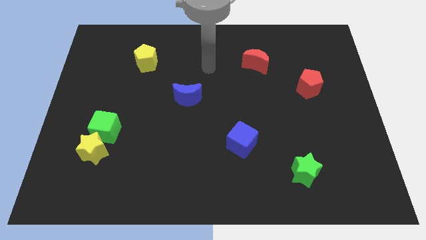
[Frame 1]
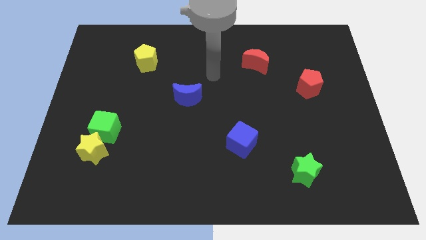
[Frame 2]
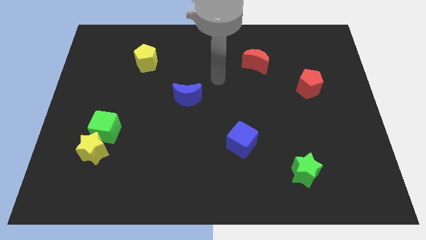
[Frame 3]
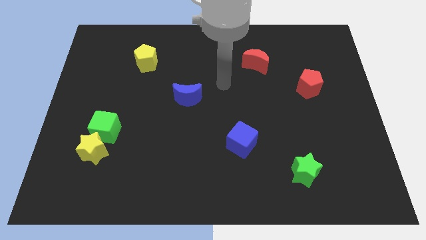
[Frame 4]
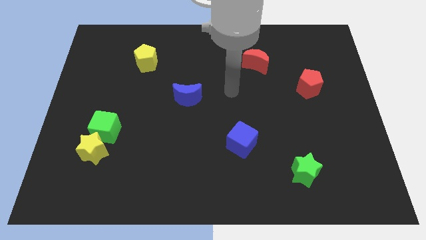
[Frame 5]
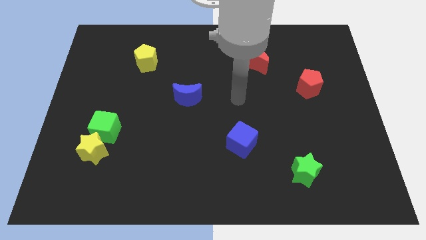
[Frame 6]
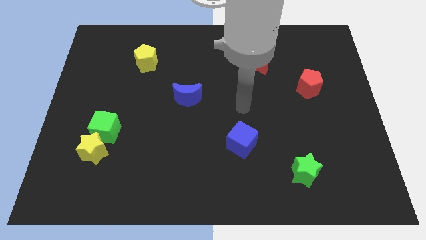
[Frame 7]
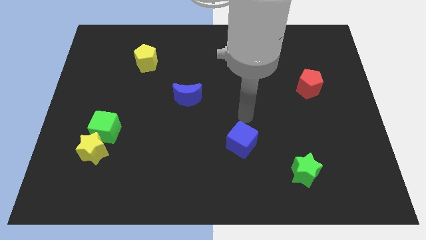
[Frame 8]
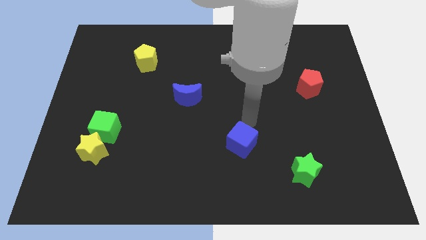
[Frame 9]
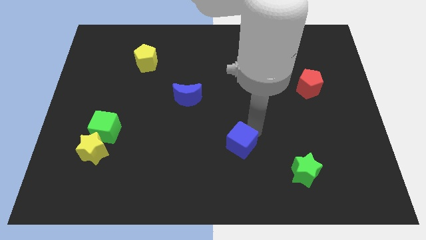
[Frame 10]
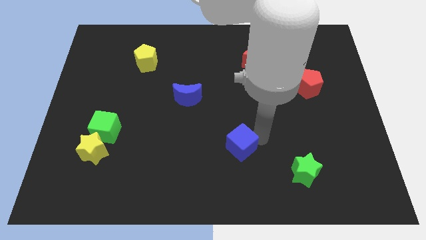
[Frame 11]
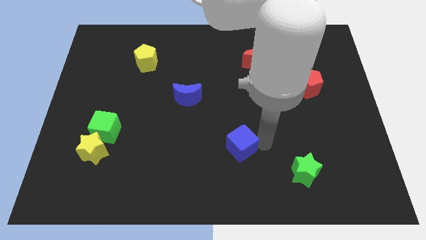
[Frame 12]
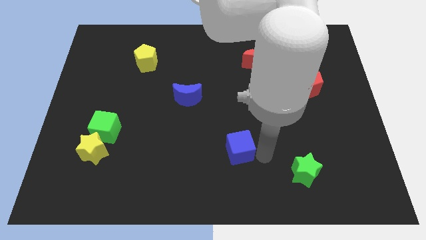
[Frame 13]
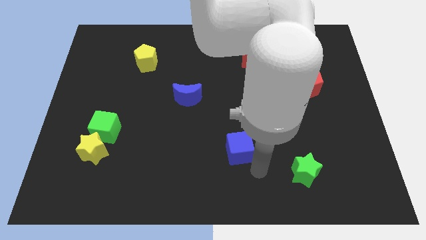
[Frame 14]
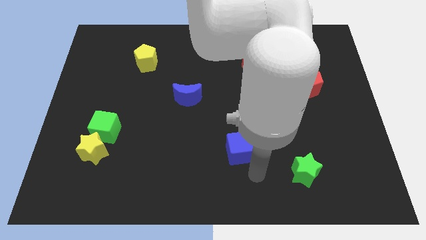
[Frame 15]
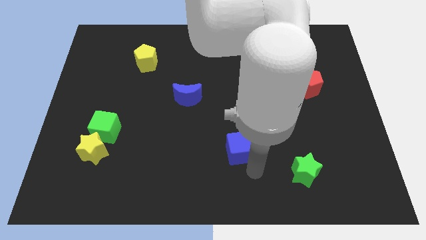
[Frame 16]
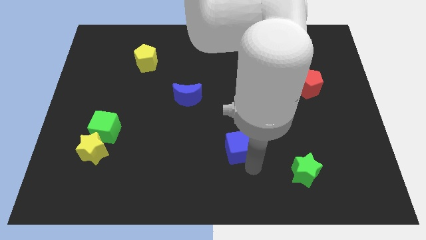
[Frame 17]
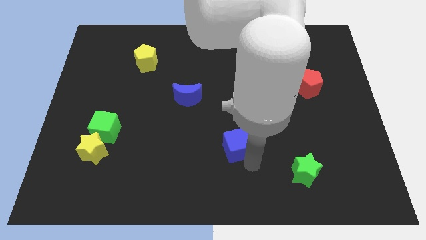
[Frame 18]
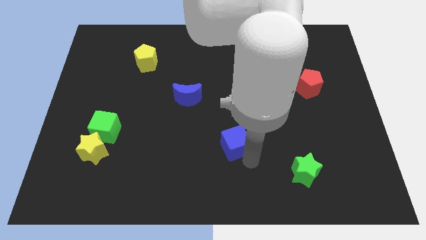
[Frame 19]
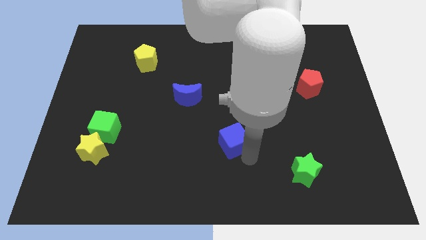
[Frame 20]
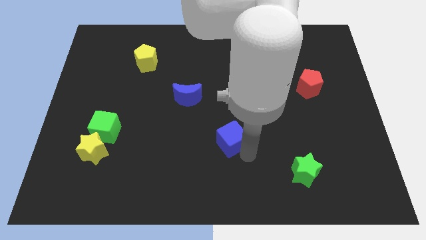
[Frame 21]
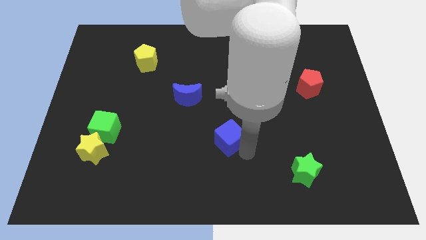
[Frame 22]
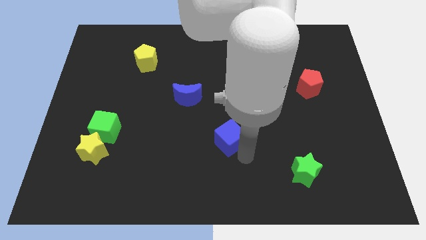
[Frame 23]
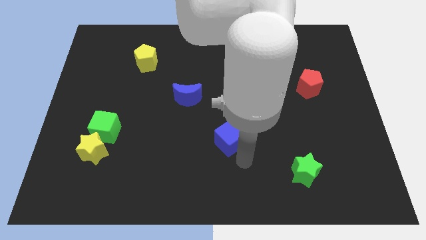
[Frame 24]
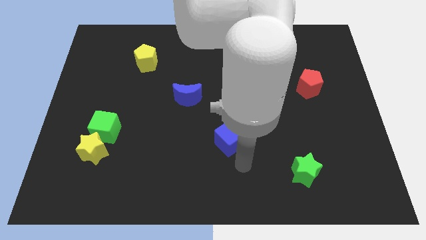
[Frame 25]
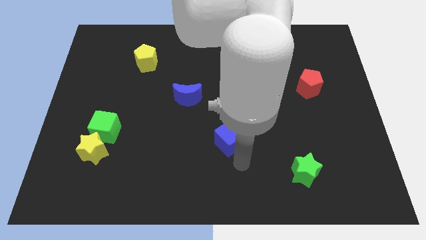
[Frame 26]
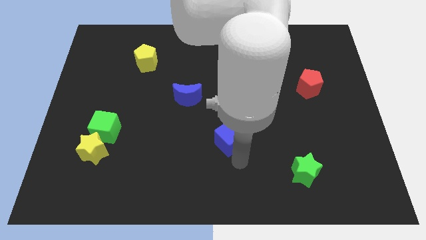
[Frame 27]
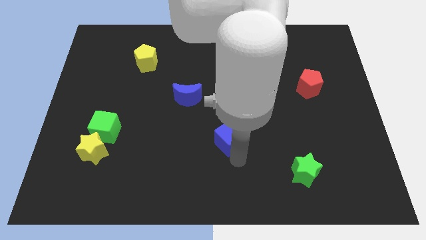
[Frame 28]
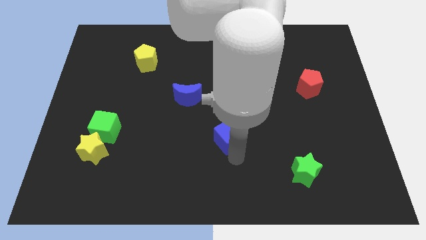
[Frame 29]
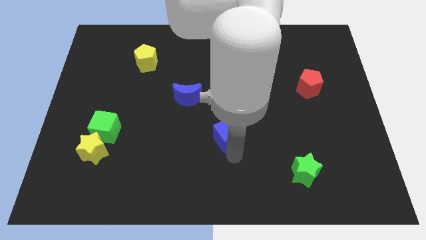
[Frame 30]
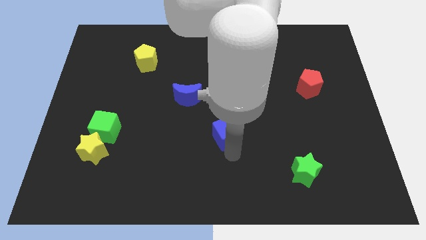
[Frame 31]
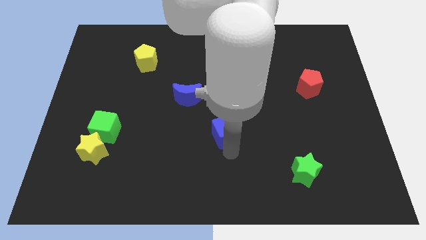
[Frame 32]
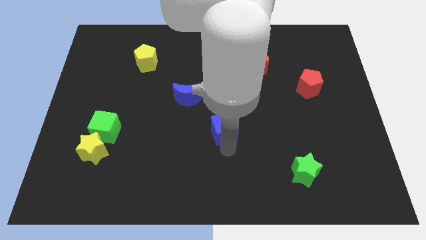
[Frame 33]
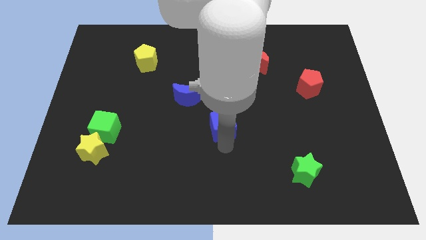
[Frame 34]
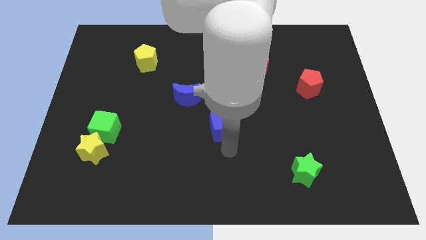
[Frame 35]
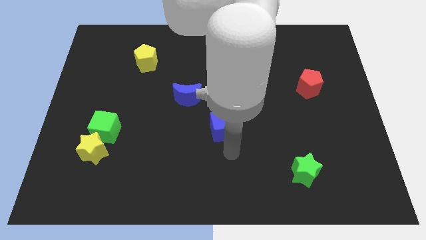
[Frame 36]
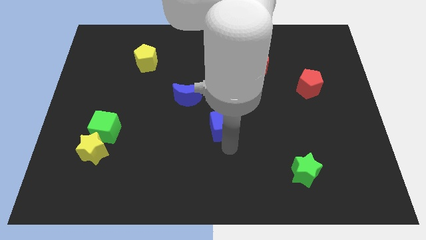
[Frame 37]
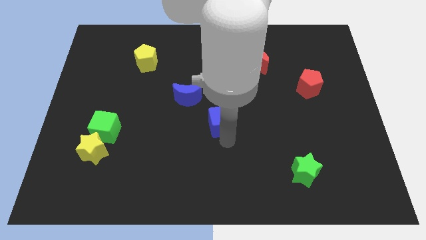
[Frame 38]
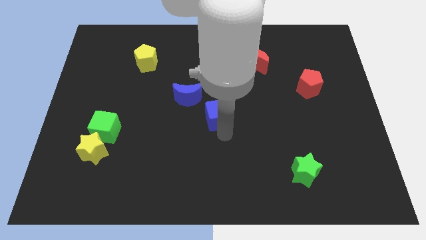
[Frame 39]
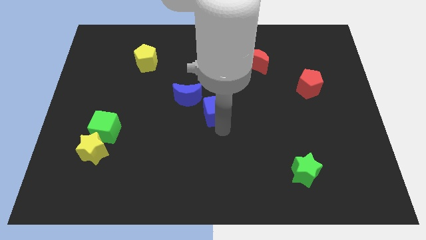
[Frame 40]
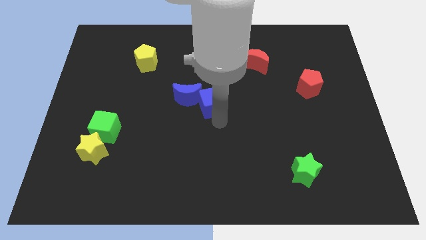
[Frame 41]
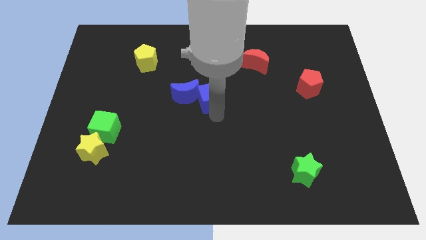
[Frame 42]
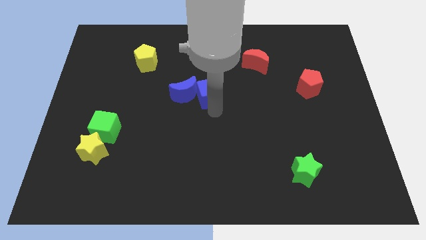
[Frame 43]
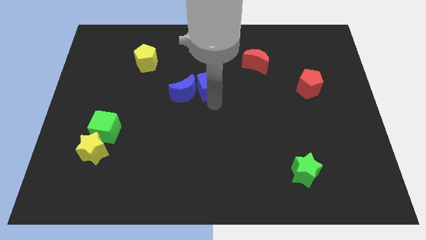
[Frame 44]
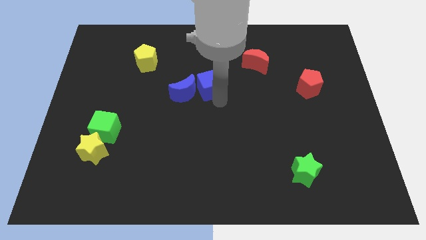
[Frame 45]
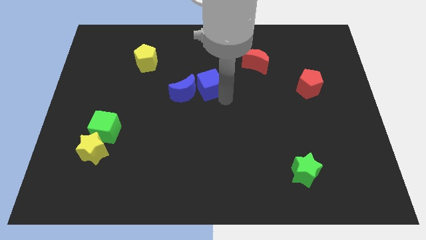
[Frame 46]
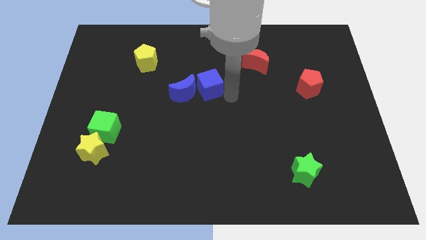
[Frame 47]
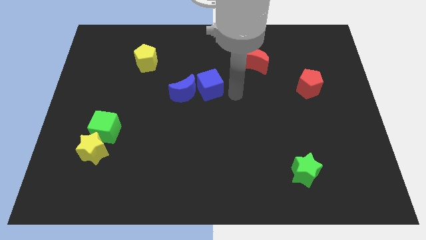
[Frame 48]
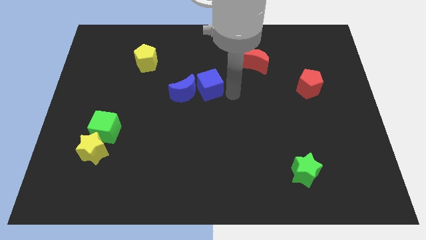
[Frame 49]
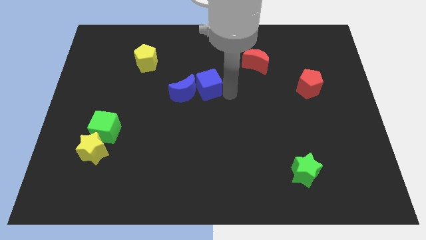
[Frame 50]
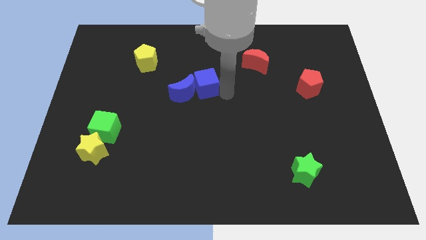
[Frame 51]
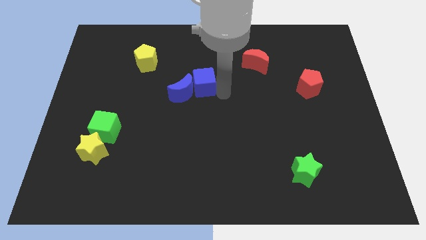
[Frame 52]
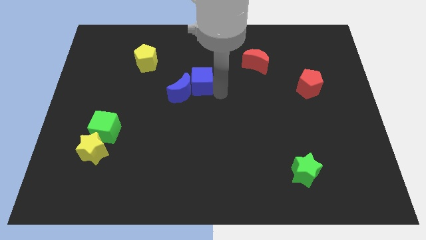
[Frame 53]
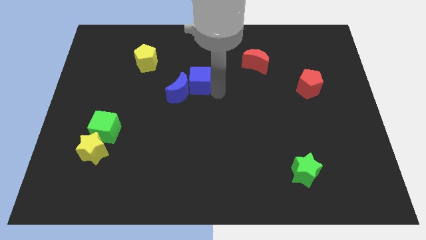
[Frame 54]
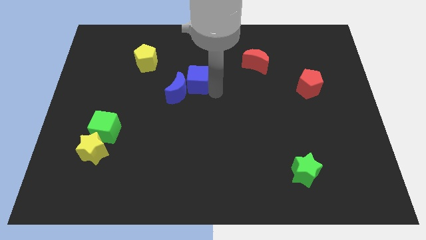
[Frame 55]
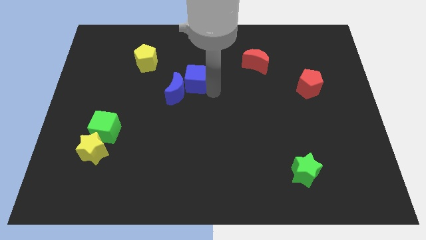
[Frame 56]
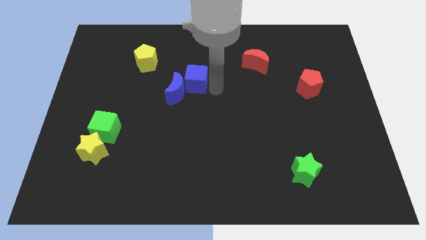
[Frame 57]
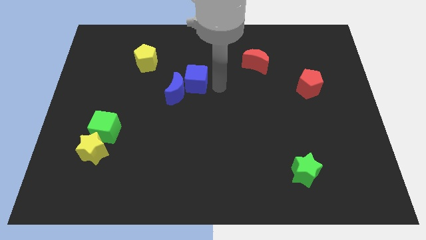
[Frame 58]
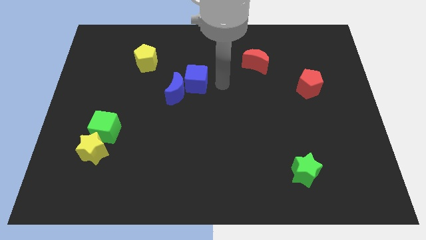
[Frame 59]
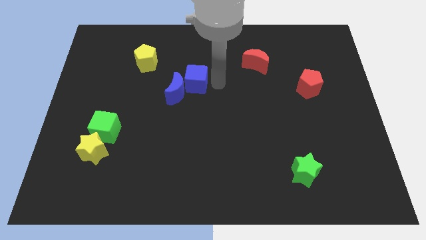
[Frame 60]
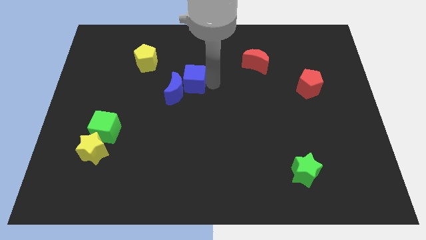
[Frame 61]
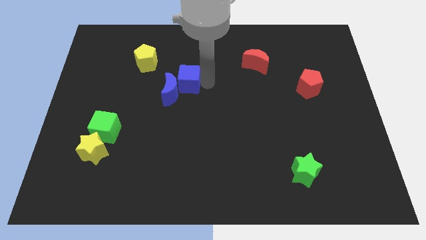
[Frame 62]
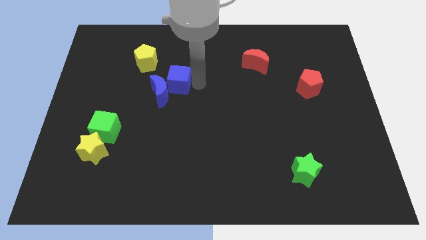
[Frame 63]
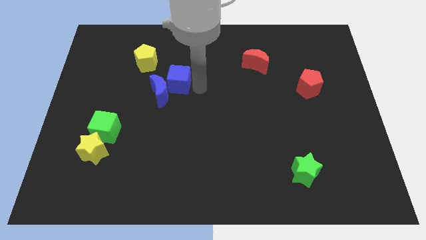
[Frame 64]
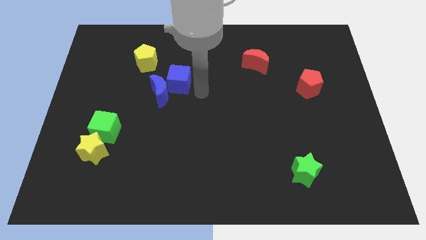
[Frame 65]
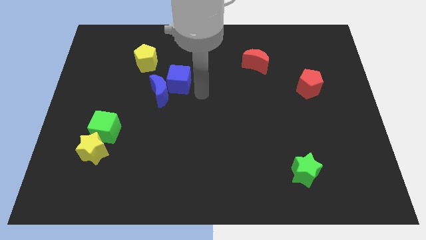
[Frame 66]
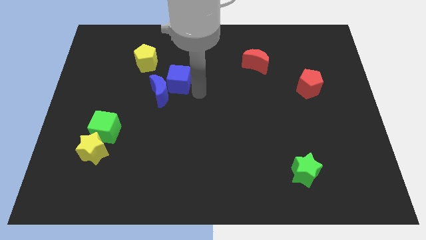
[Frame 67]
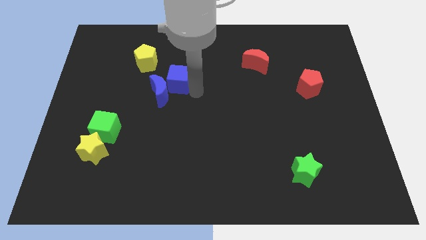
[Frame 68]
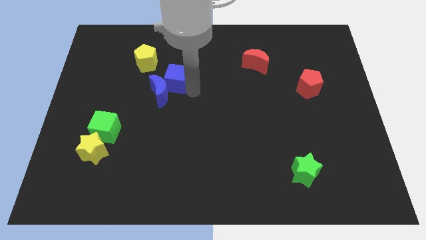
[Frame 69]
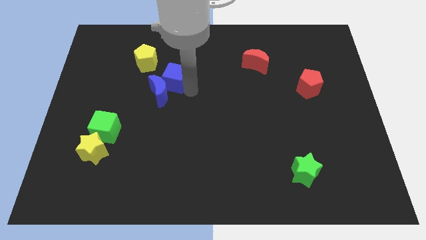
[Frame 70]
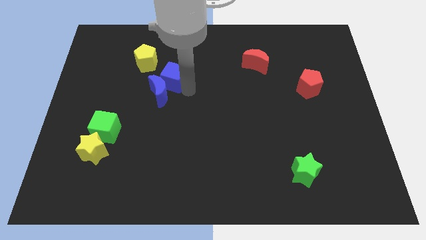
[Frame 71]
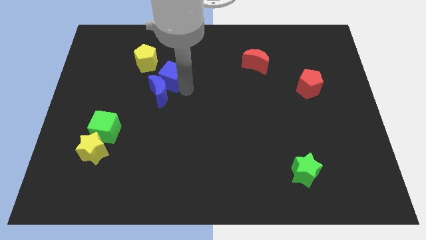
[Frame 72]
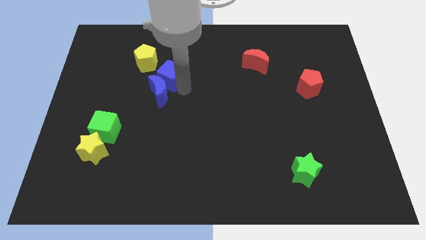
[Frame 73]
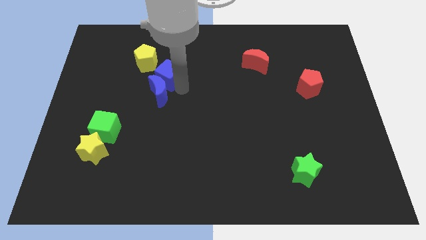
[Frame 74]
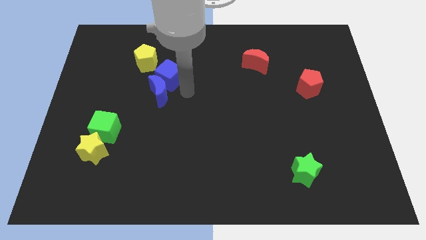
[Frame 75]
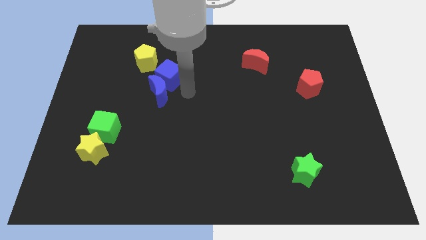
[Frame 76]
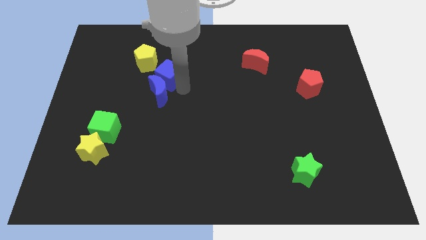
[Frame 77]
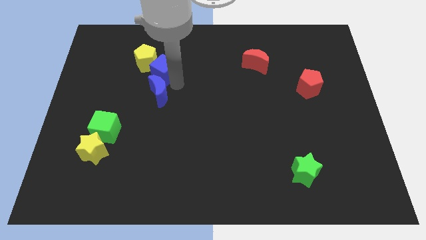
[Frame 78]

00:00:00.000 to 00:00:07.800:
slide the blue cube to the yellow pentagon
